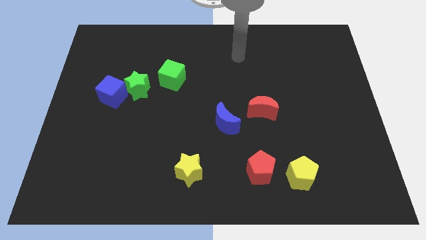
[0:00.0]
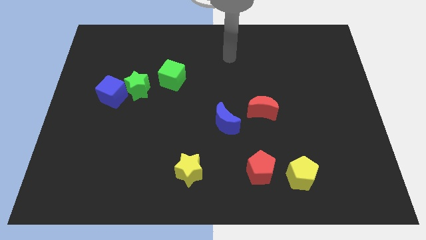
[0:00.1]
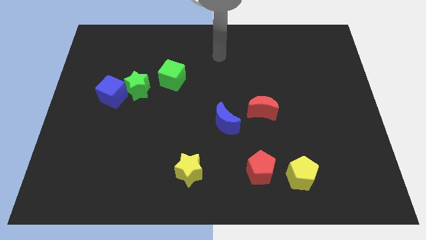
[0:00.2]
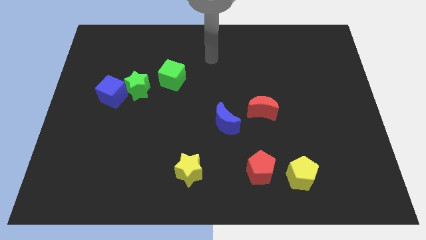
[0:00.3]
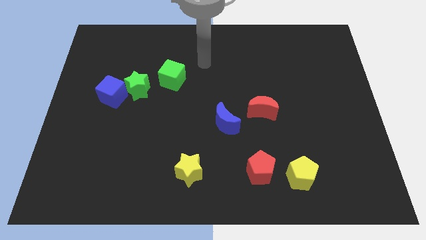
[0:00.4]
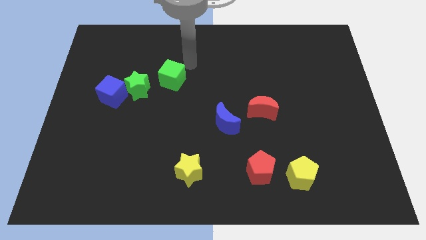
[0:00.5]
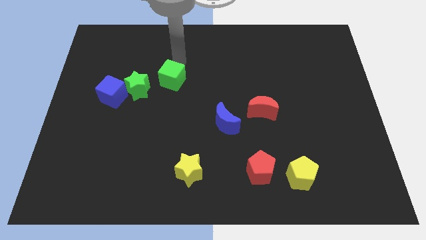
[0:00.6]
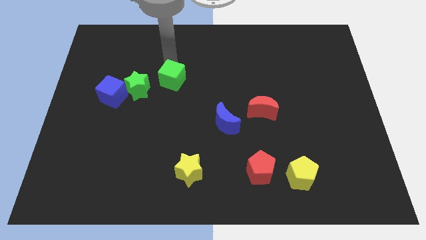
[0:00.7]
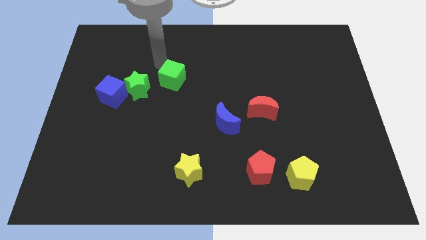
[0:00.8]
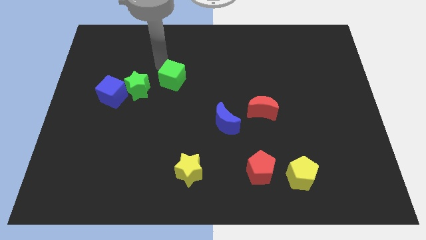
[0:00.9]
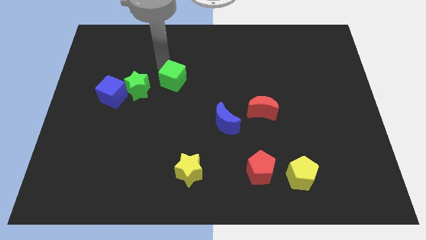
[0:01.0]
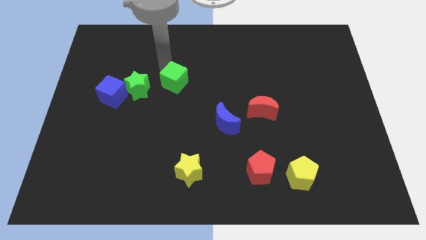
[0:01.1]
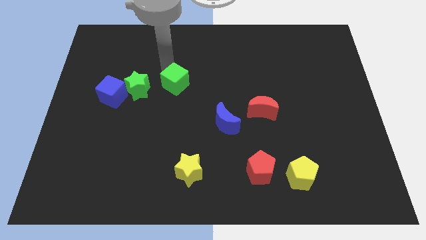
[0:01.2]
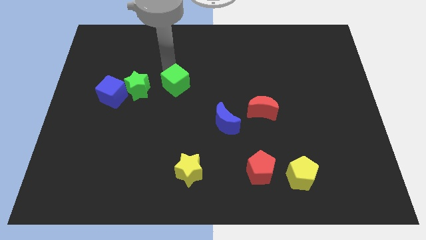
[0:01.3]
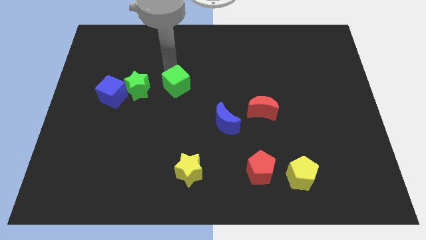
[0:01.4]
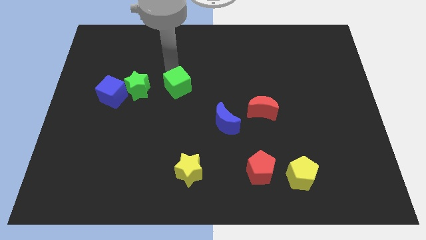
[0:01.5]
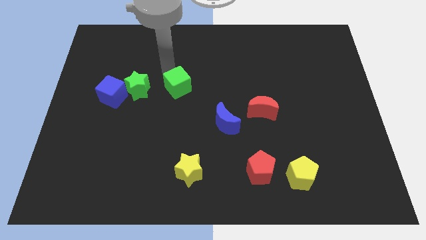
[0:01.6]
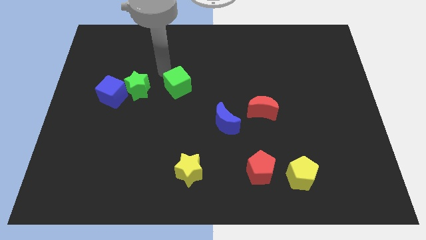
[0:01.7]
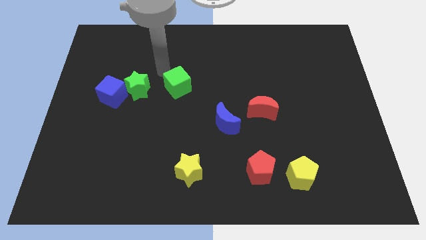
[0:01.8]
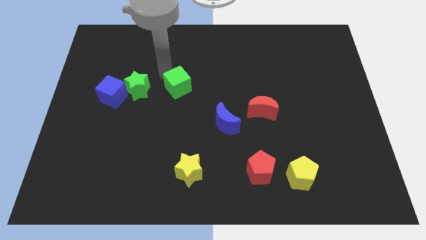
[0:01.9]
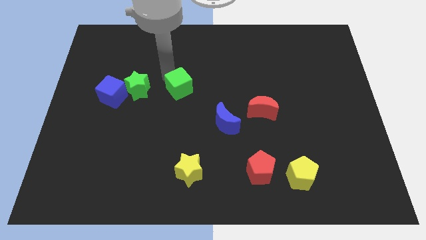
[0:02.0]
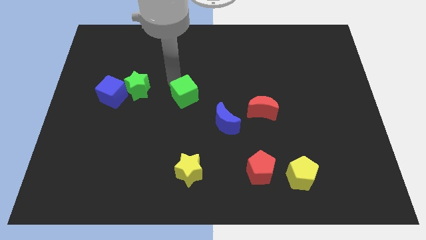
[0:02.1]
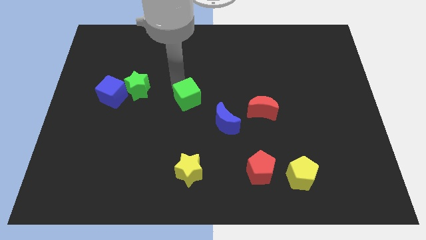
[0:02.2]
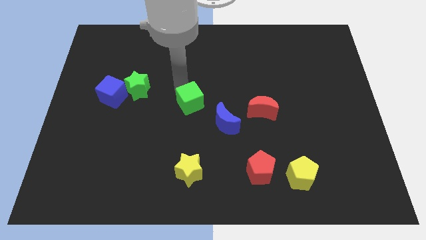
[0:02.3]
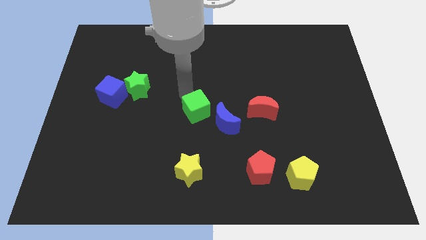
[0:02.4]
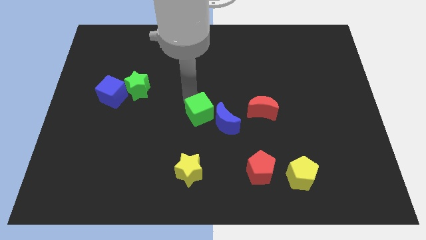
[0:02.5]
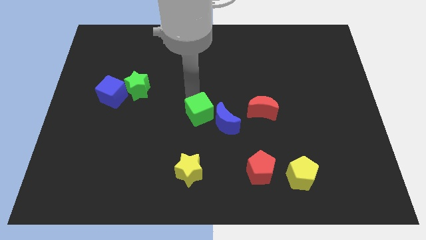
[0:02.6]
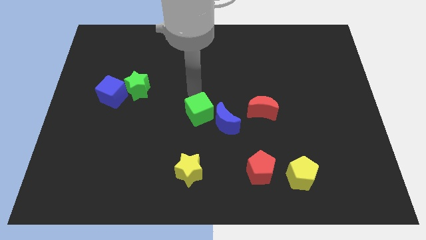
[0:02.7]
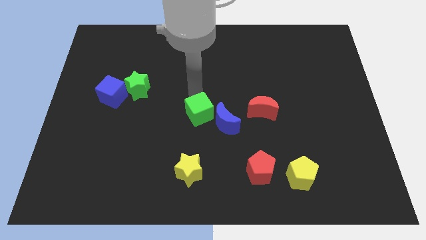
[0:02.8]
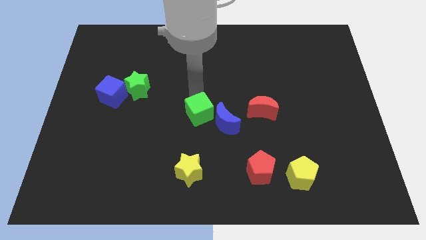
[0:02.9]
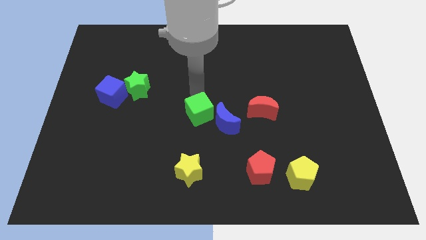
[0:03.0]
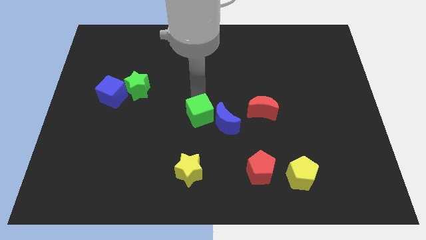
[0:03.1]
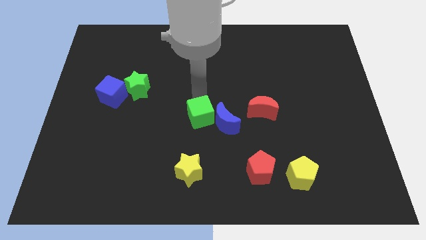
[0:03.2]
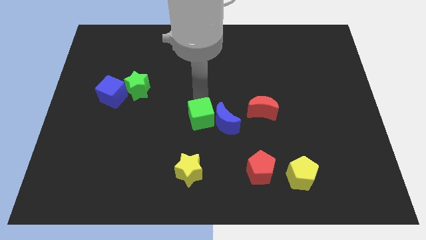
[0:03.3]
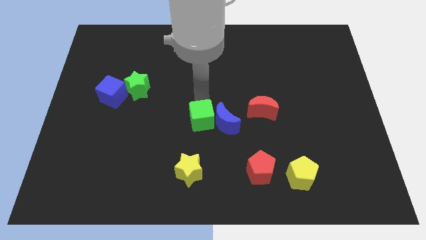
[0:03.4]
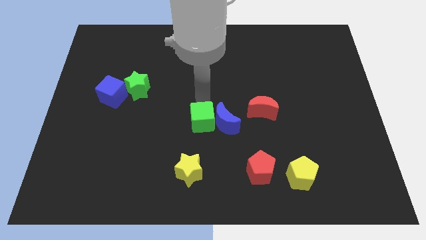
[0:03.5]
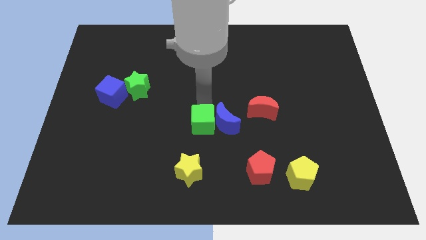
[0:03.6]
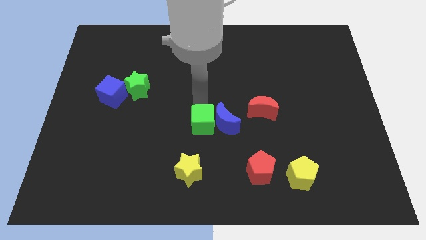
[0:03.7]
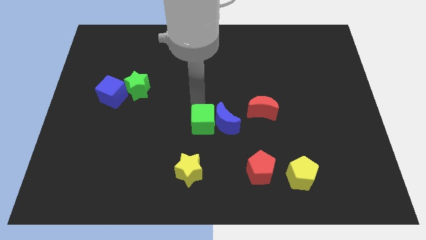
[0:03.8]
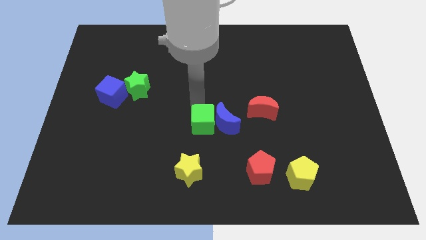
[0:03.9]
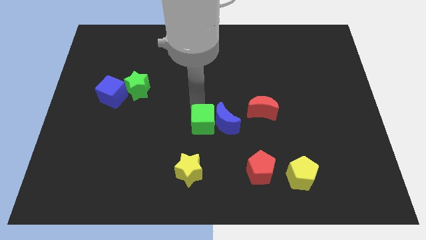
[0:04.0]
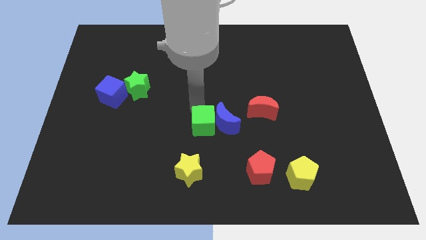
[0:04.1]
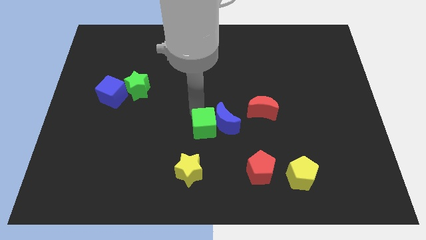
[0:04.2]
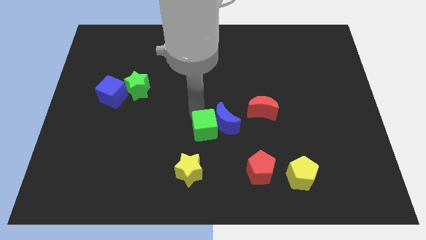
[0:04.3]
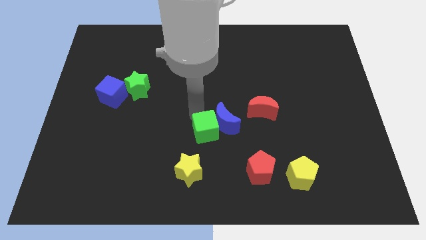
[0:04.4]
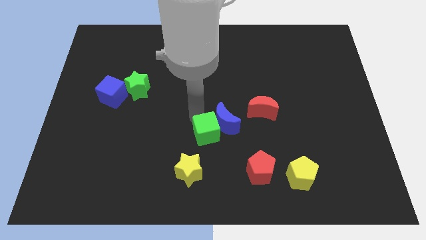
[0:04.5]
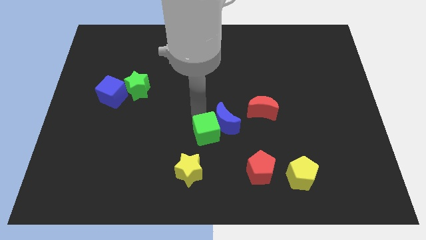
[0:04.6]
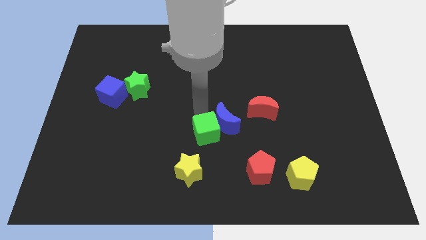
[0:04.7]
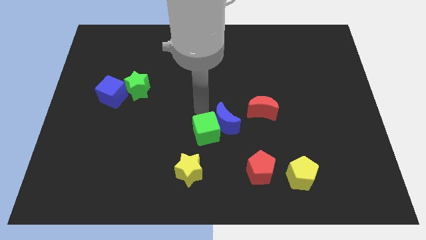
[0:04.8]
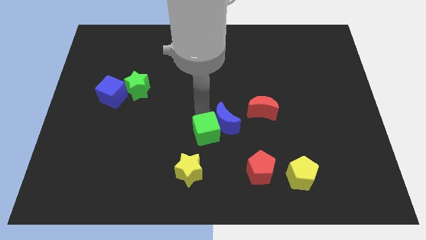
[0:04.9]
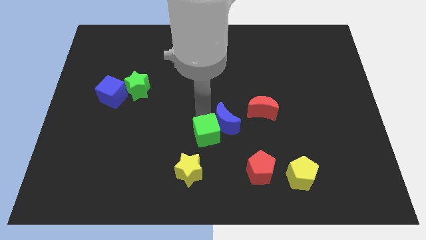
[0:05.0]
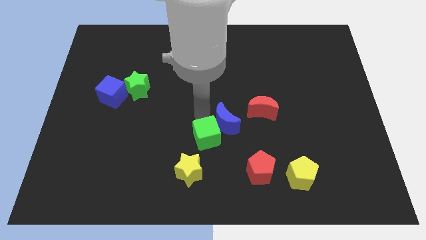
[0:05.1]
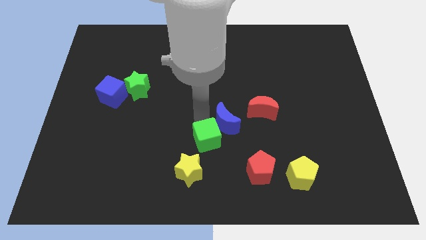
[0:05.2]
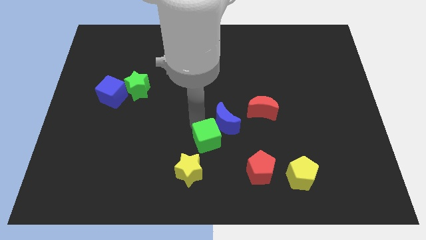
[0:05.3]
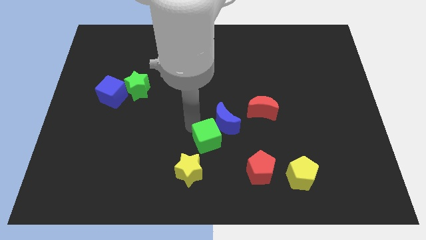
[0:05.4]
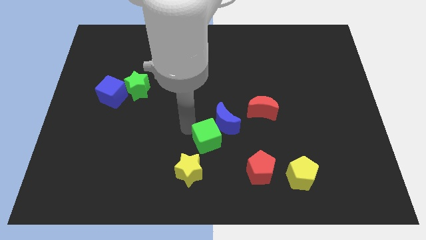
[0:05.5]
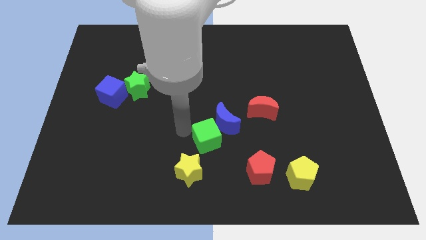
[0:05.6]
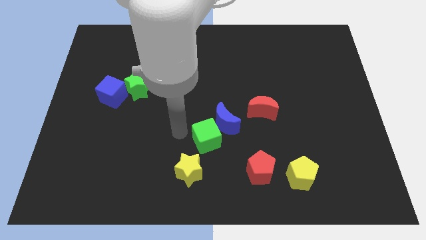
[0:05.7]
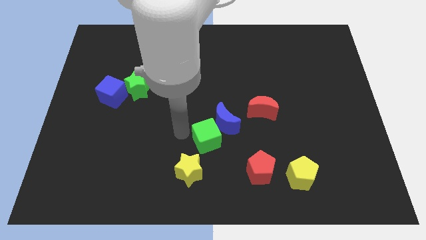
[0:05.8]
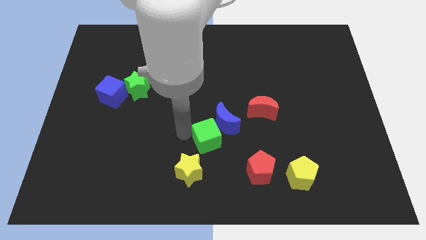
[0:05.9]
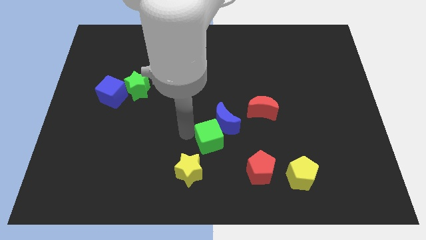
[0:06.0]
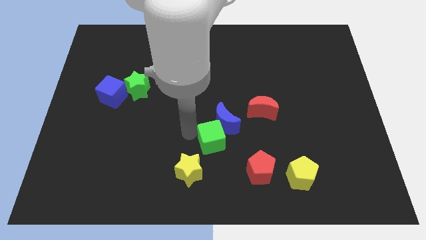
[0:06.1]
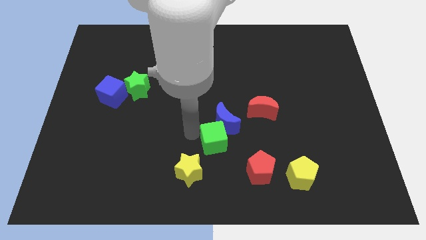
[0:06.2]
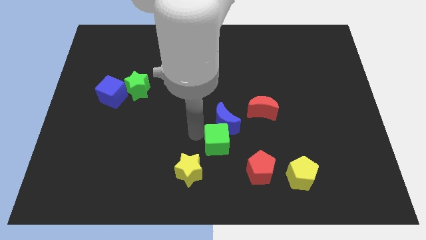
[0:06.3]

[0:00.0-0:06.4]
slide the green cube downwards and right

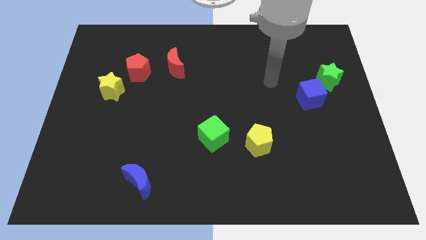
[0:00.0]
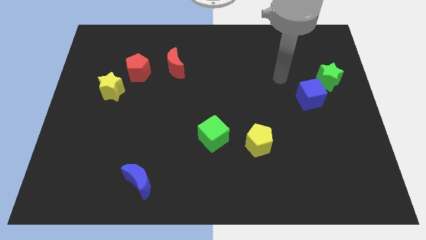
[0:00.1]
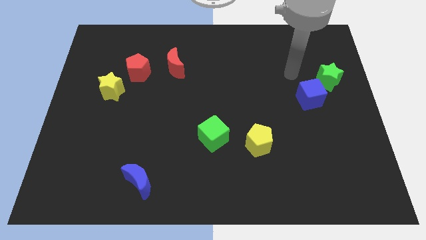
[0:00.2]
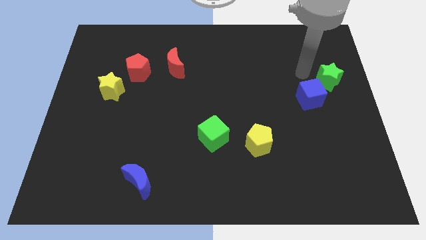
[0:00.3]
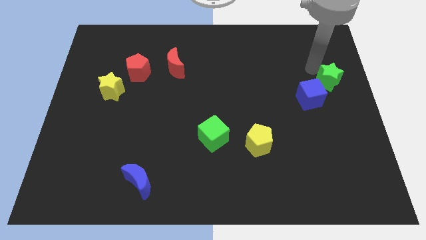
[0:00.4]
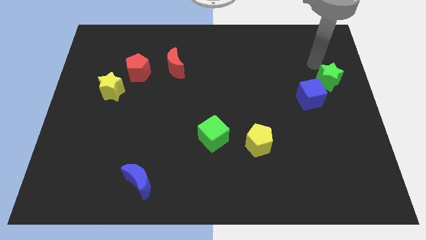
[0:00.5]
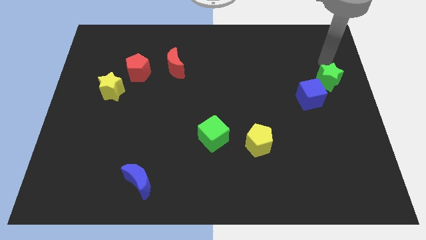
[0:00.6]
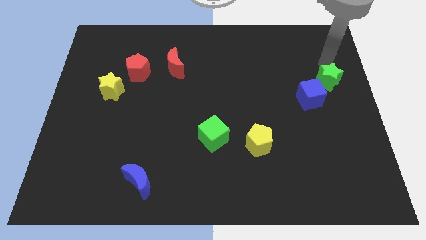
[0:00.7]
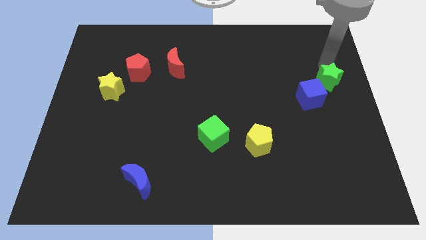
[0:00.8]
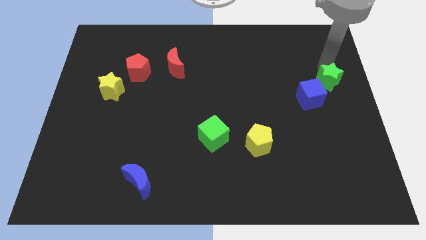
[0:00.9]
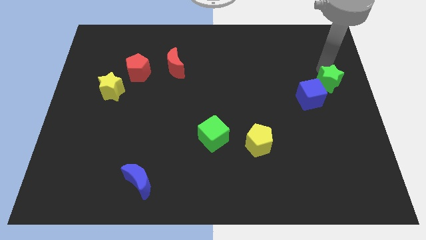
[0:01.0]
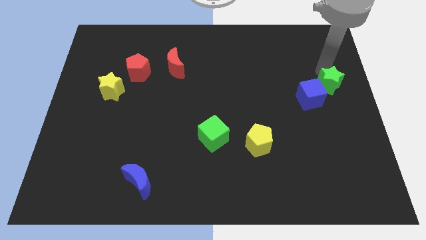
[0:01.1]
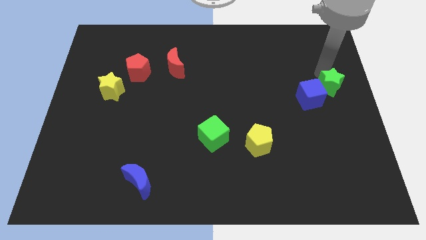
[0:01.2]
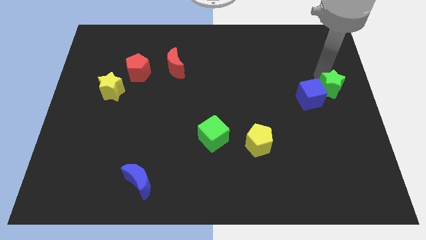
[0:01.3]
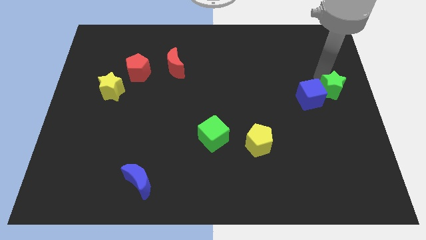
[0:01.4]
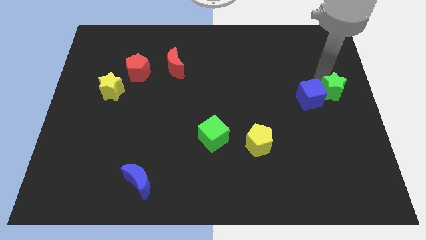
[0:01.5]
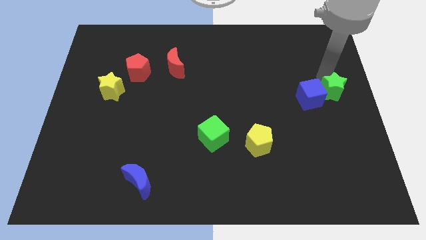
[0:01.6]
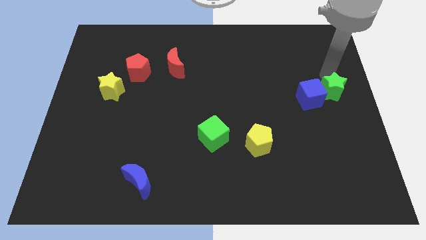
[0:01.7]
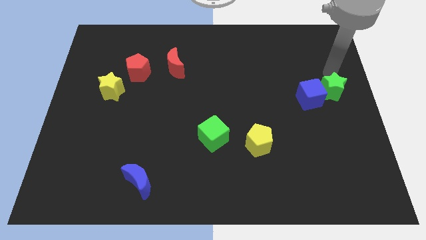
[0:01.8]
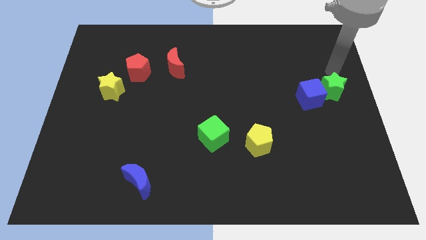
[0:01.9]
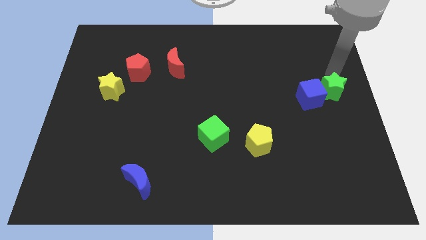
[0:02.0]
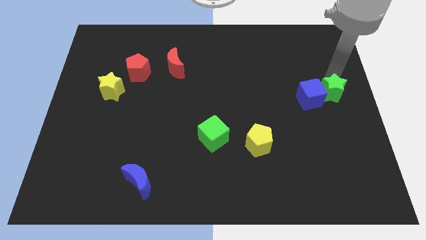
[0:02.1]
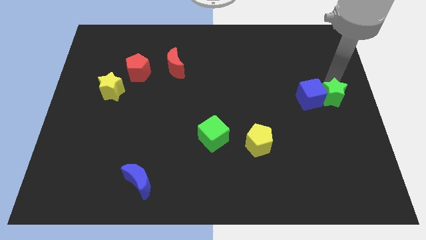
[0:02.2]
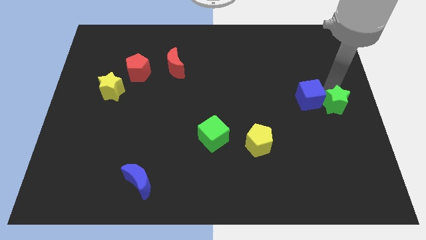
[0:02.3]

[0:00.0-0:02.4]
slide the green star down a little
